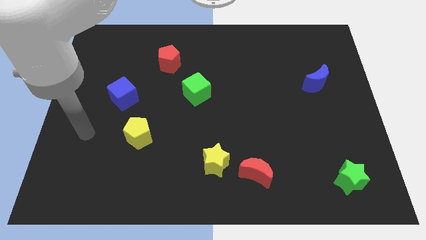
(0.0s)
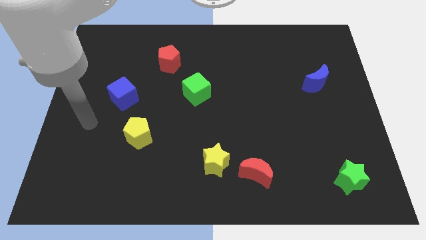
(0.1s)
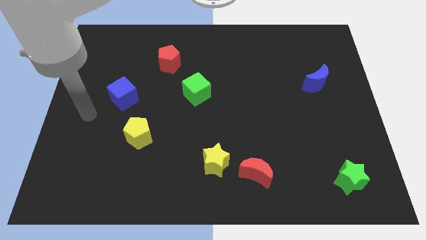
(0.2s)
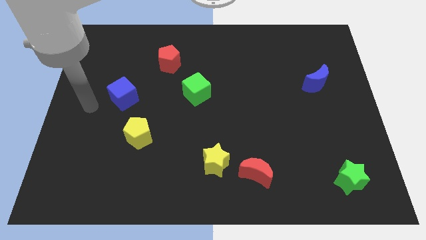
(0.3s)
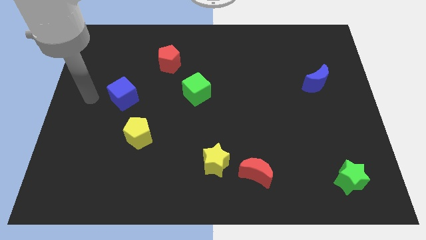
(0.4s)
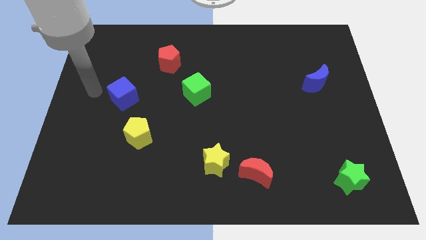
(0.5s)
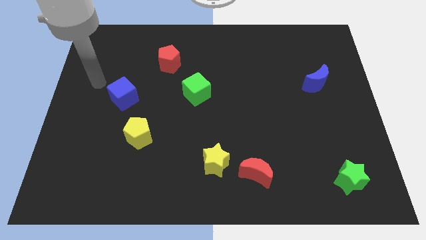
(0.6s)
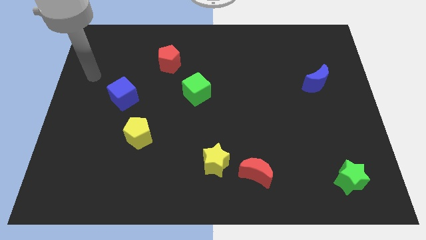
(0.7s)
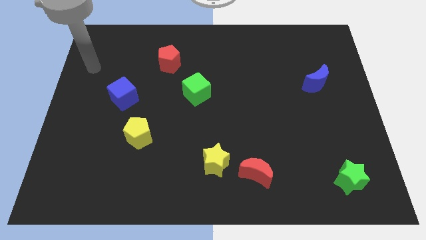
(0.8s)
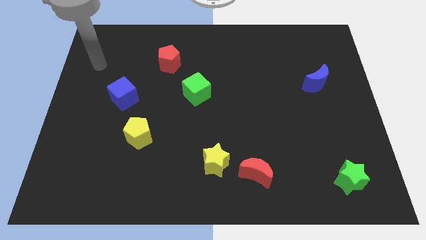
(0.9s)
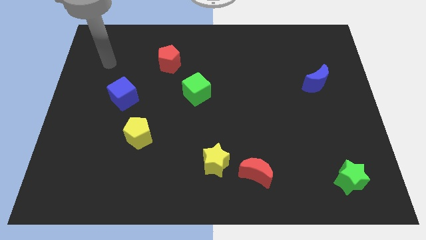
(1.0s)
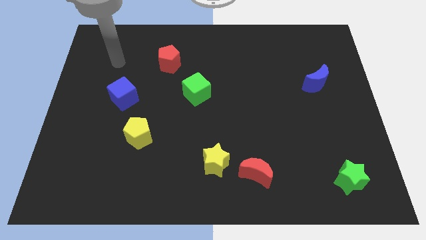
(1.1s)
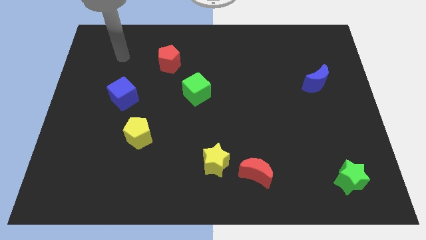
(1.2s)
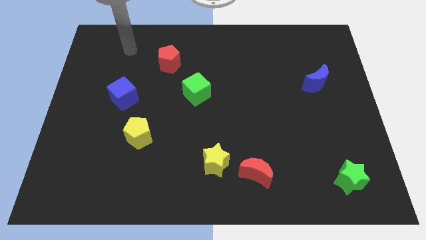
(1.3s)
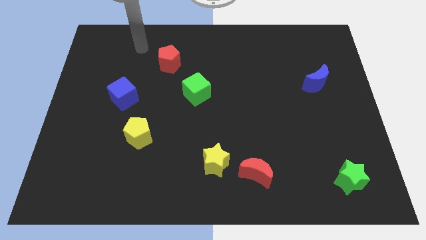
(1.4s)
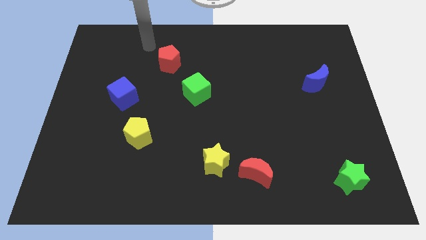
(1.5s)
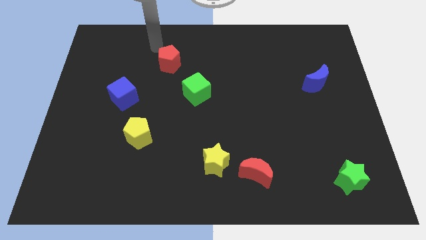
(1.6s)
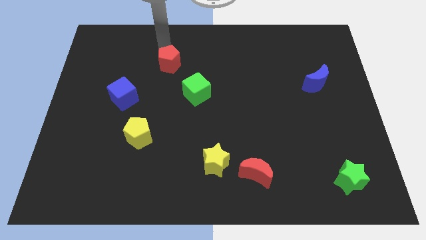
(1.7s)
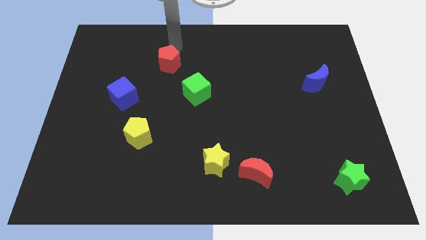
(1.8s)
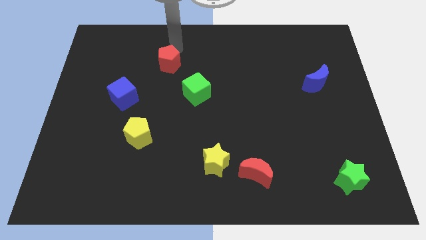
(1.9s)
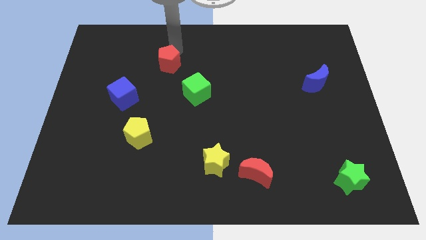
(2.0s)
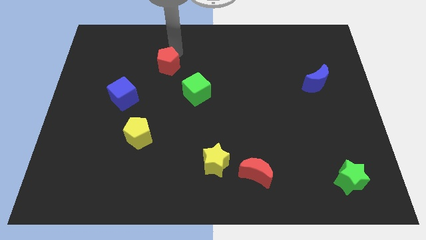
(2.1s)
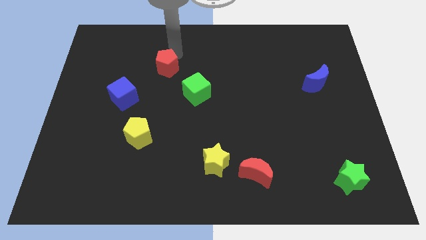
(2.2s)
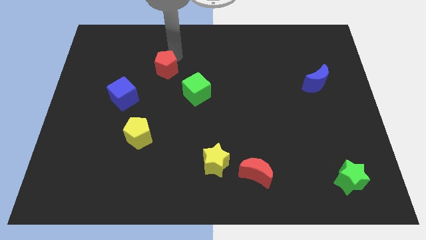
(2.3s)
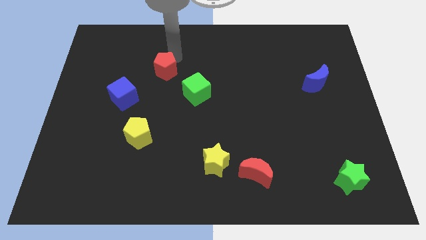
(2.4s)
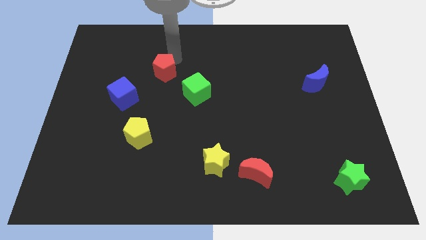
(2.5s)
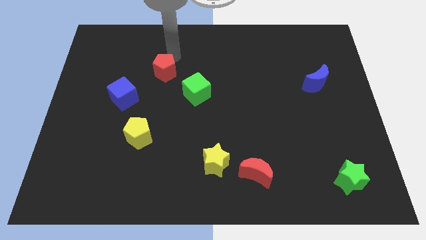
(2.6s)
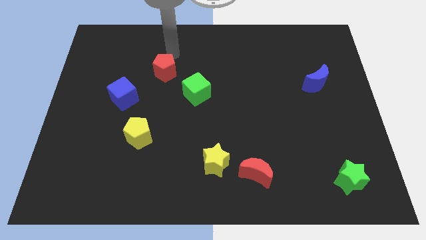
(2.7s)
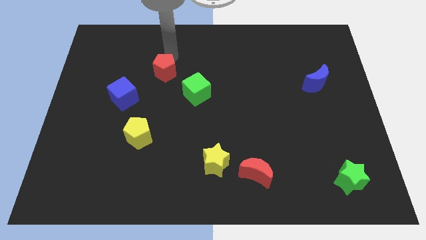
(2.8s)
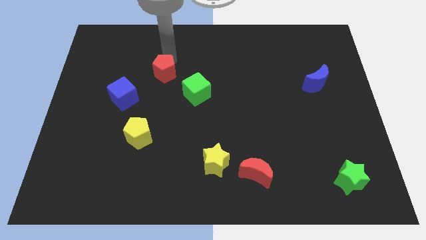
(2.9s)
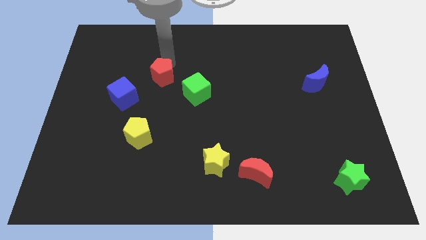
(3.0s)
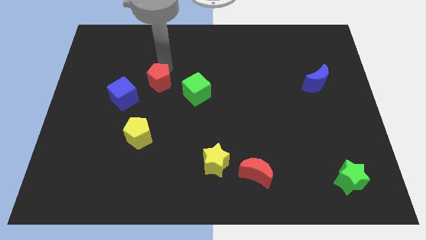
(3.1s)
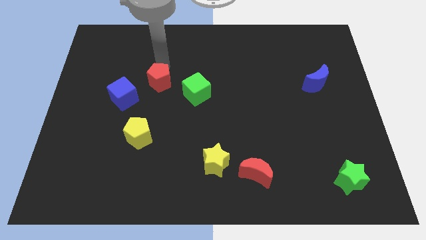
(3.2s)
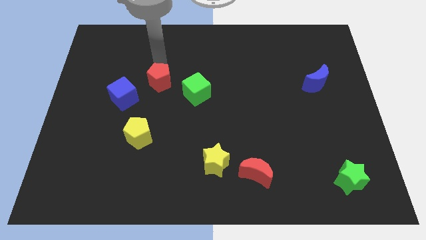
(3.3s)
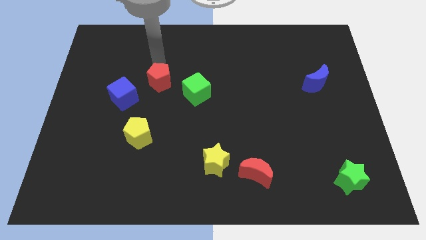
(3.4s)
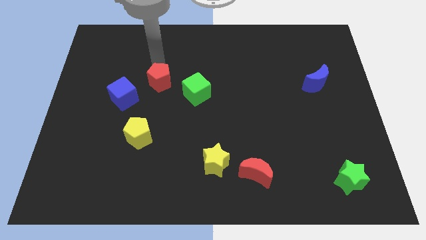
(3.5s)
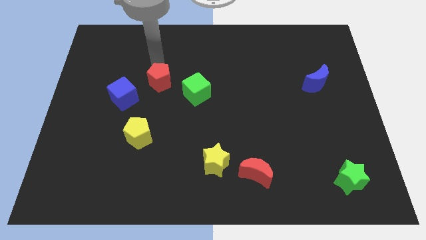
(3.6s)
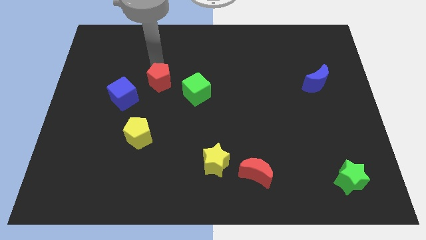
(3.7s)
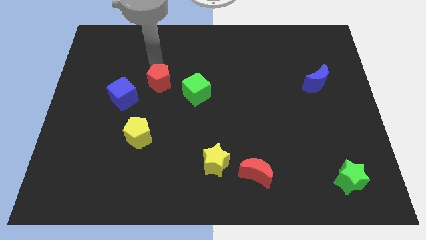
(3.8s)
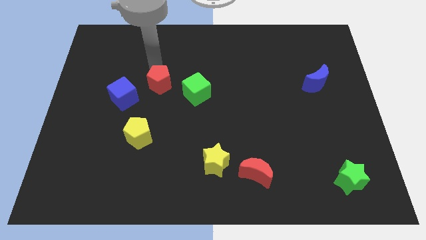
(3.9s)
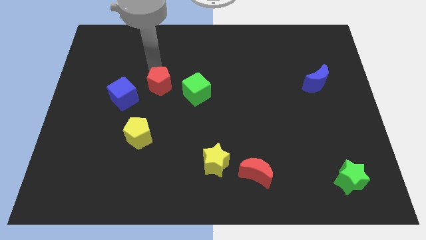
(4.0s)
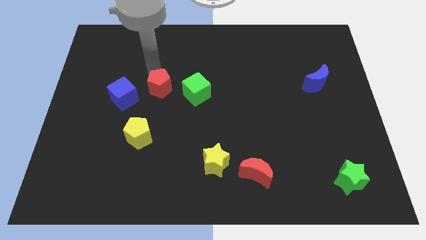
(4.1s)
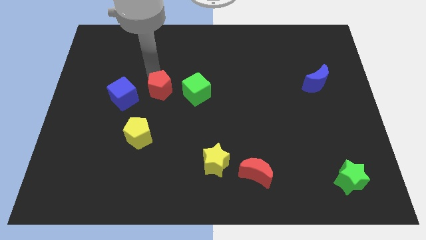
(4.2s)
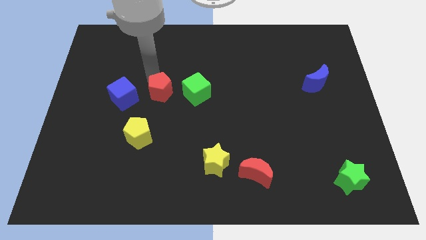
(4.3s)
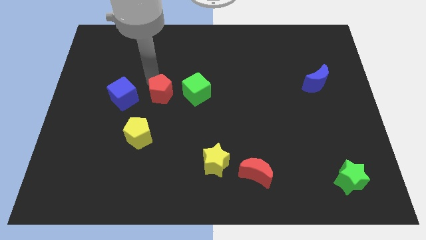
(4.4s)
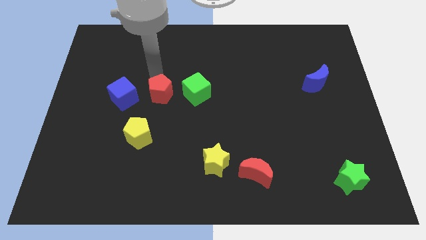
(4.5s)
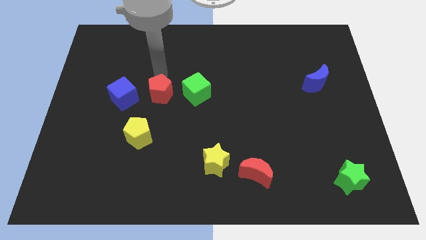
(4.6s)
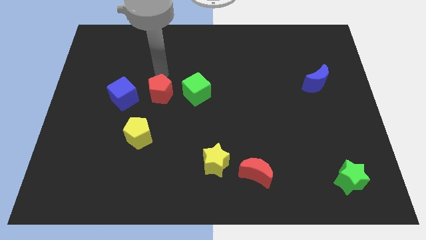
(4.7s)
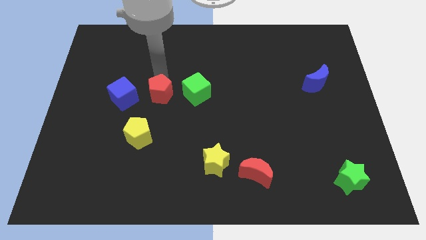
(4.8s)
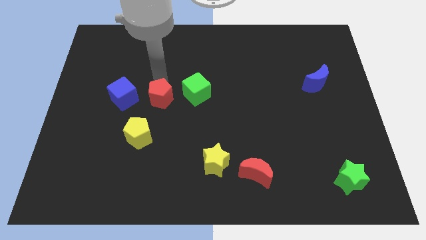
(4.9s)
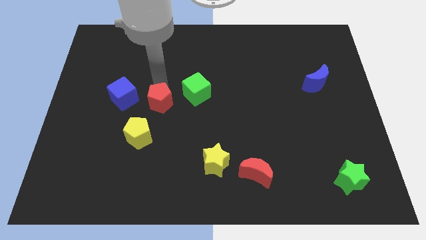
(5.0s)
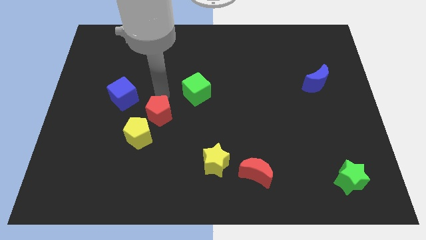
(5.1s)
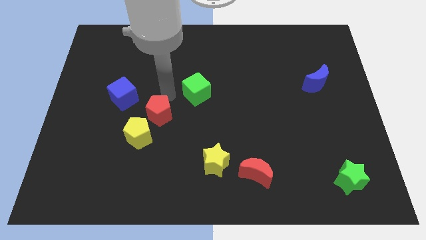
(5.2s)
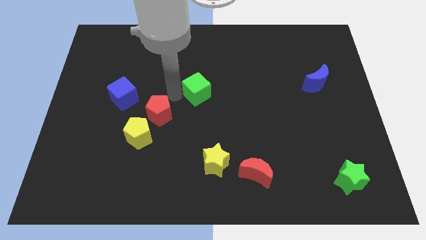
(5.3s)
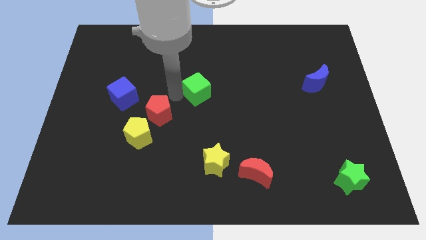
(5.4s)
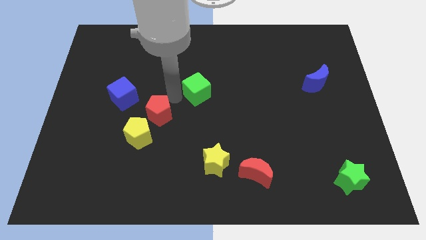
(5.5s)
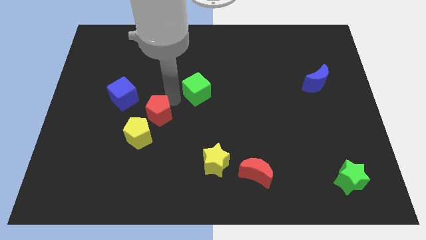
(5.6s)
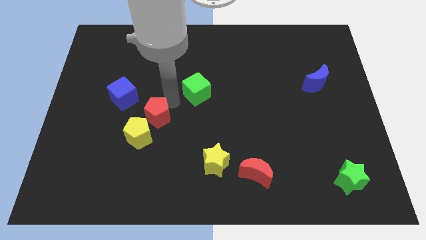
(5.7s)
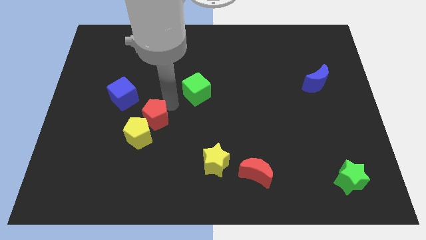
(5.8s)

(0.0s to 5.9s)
put the red pentagon next to the yellow pentagon
